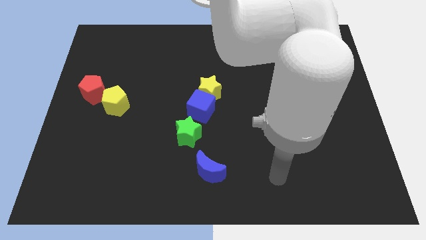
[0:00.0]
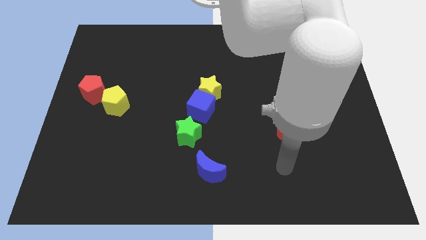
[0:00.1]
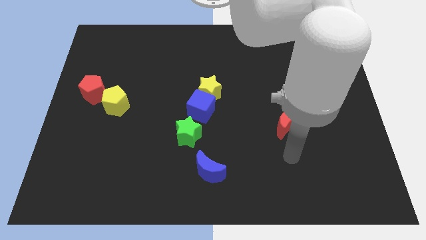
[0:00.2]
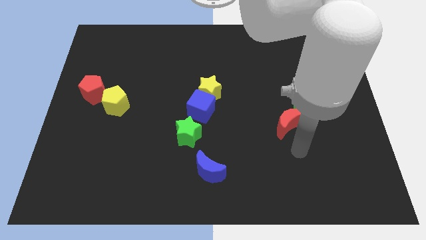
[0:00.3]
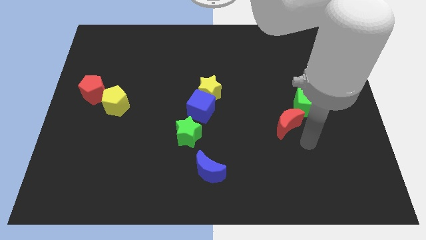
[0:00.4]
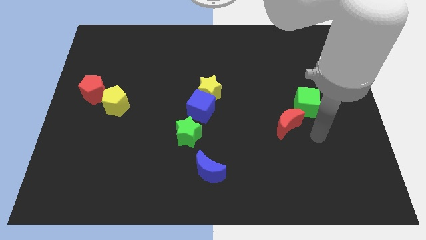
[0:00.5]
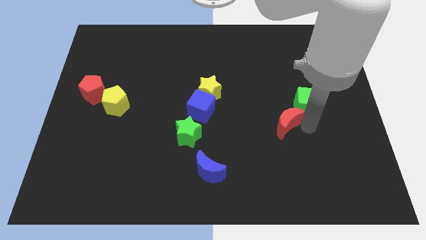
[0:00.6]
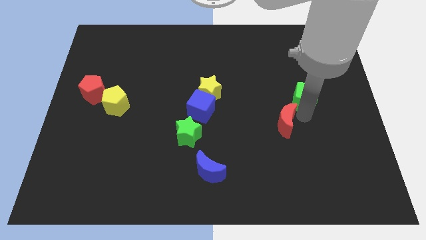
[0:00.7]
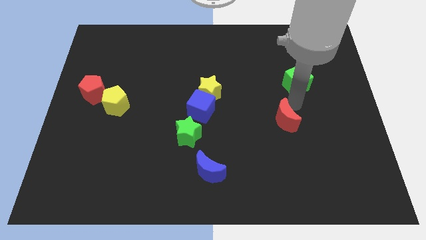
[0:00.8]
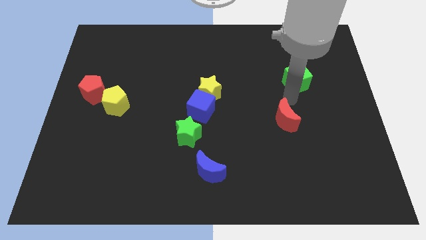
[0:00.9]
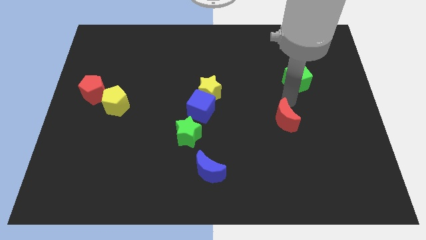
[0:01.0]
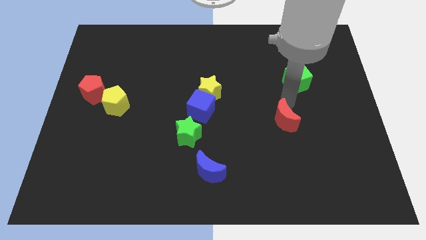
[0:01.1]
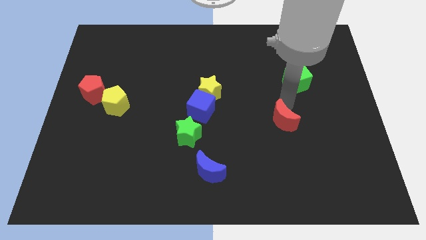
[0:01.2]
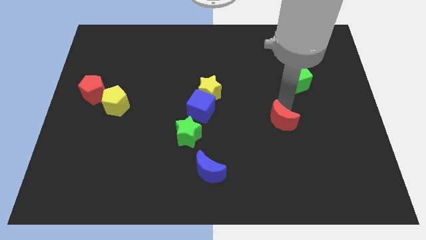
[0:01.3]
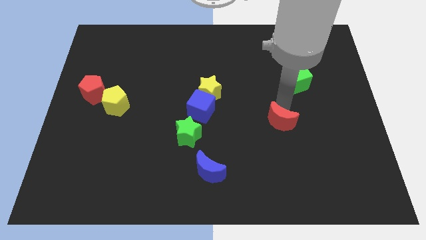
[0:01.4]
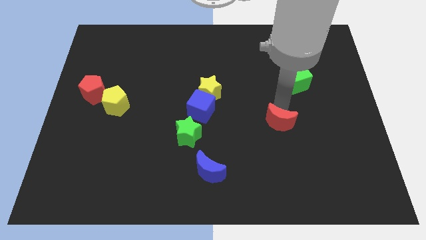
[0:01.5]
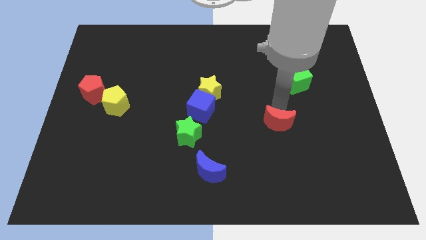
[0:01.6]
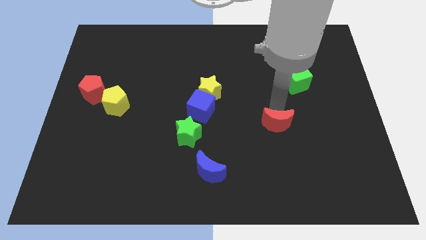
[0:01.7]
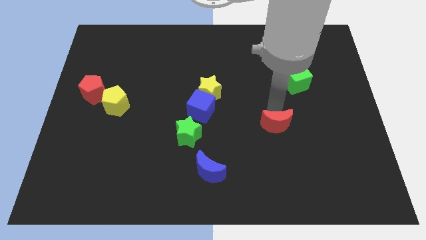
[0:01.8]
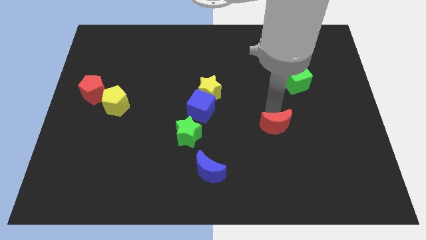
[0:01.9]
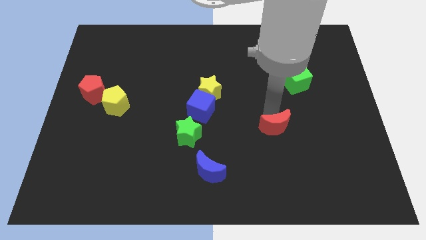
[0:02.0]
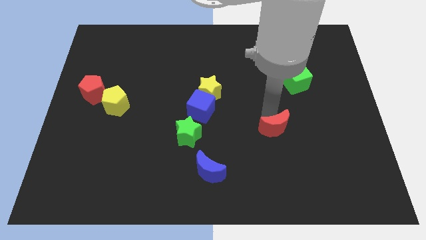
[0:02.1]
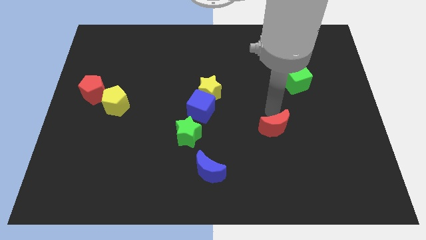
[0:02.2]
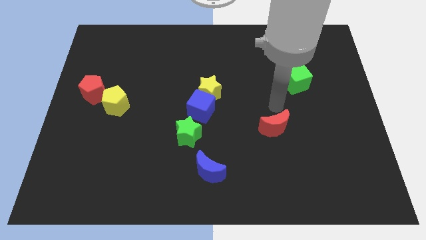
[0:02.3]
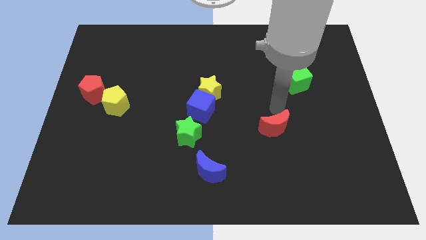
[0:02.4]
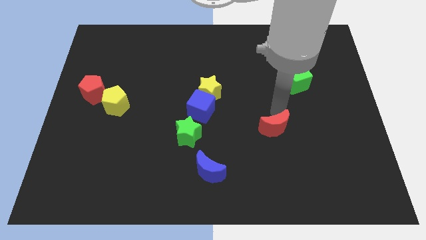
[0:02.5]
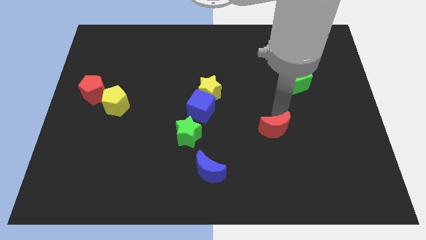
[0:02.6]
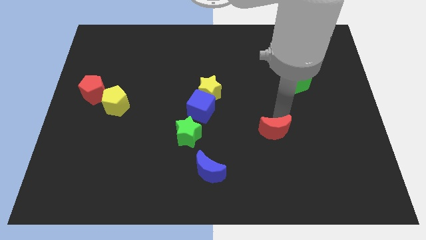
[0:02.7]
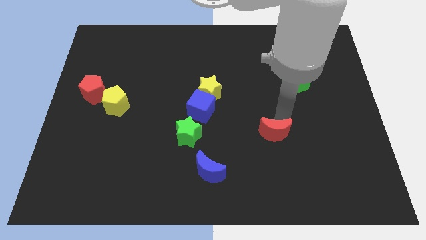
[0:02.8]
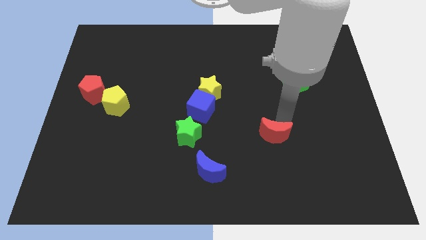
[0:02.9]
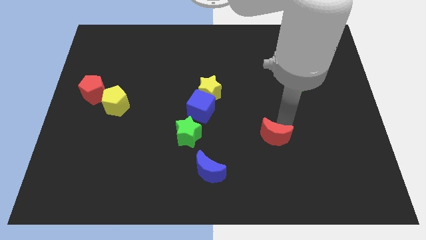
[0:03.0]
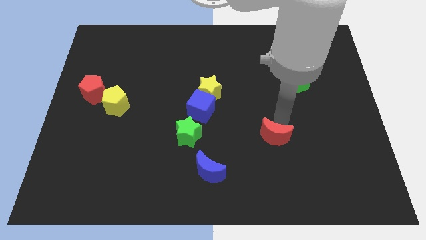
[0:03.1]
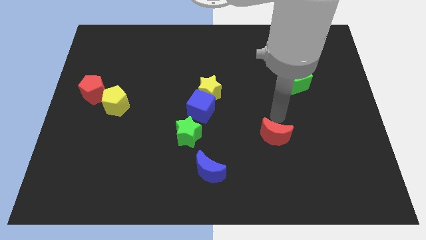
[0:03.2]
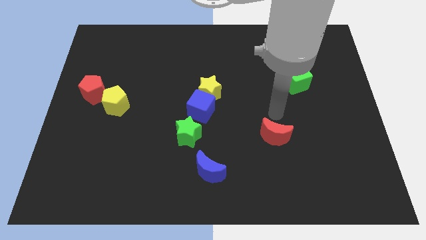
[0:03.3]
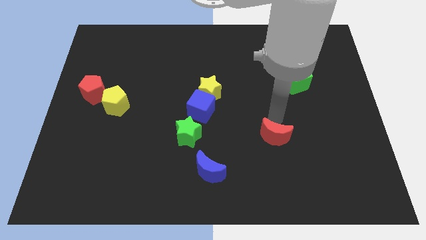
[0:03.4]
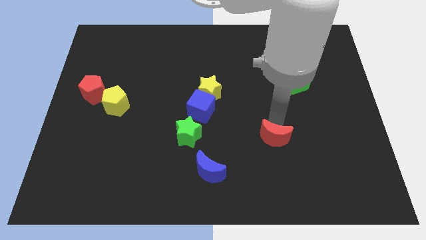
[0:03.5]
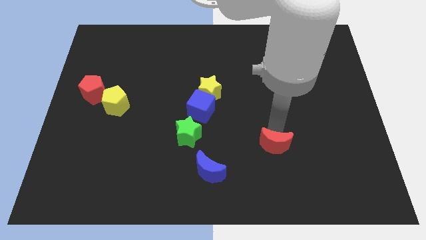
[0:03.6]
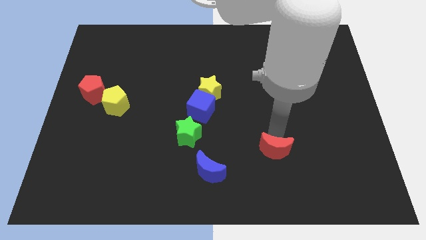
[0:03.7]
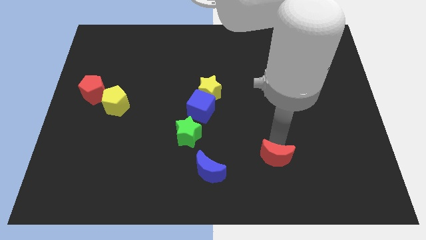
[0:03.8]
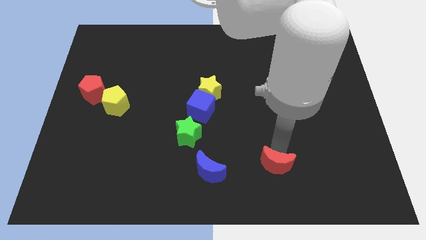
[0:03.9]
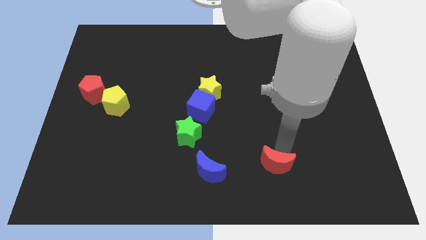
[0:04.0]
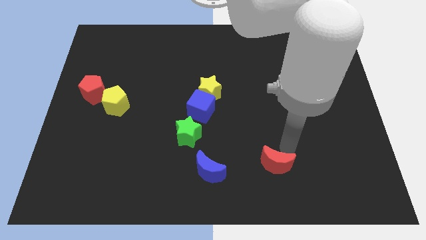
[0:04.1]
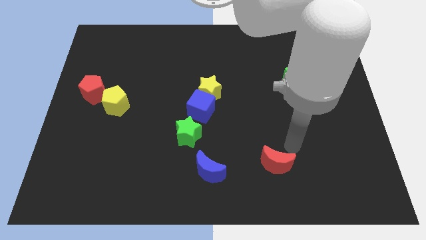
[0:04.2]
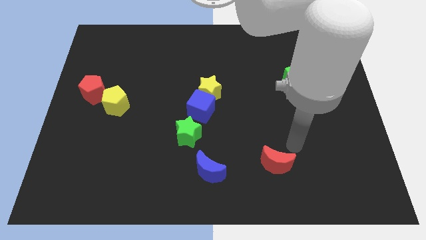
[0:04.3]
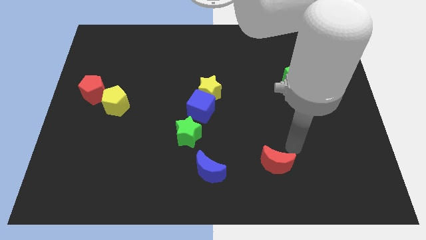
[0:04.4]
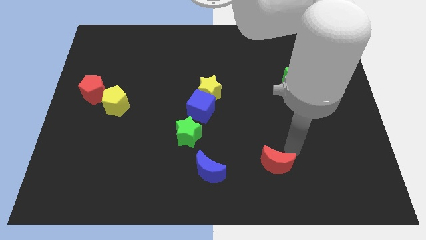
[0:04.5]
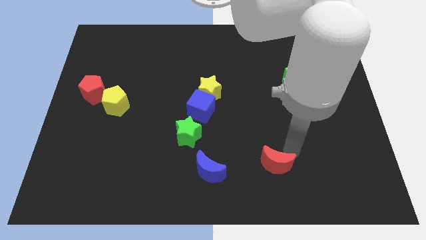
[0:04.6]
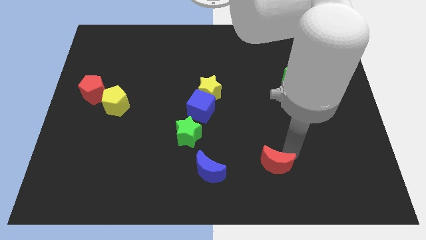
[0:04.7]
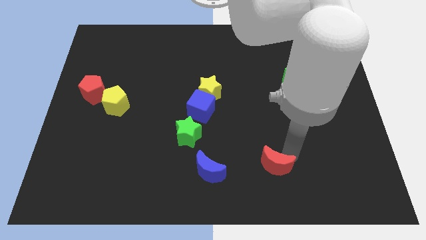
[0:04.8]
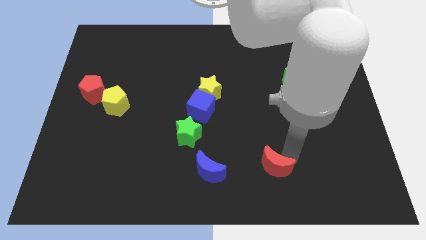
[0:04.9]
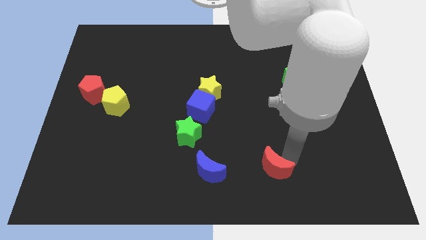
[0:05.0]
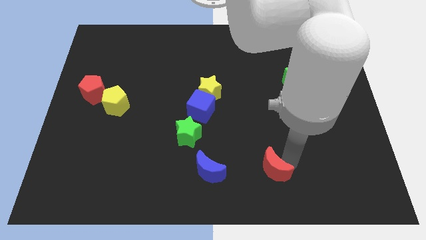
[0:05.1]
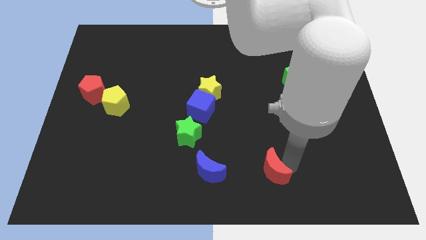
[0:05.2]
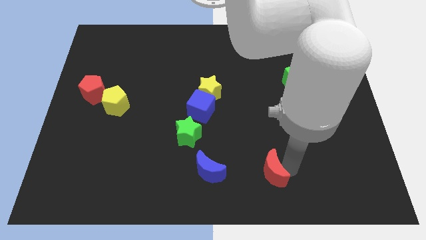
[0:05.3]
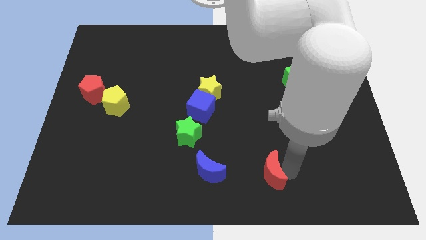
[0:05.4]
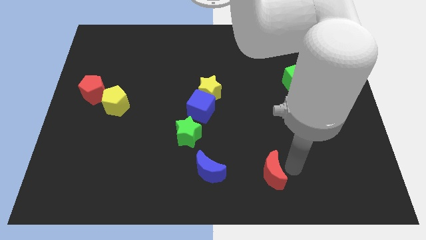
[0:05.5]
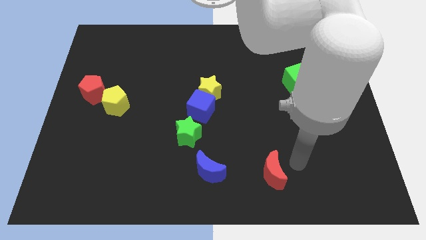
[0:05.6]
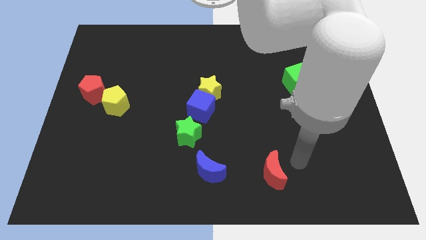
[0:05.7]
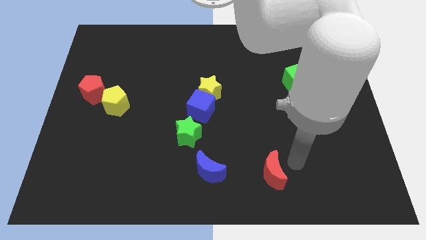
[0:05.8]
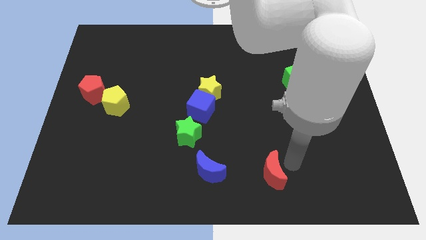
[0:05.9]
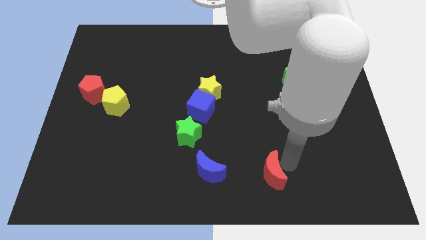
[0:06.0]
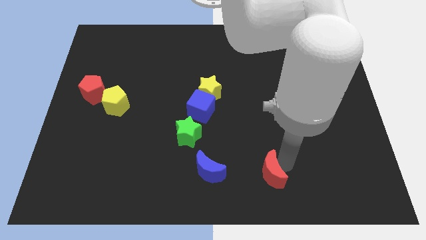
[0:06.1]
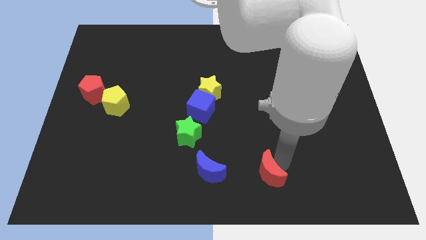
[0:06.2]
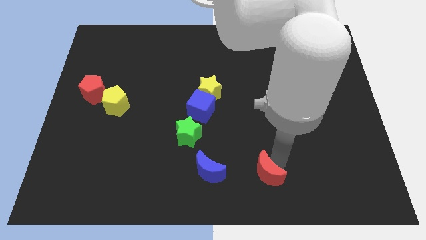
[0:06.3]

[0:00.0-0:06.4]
push the red moon to the bottom side

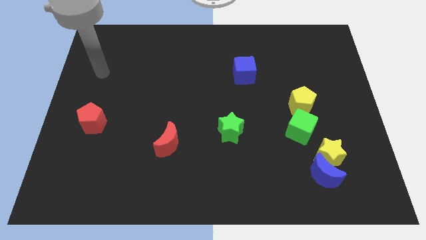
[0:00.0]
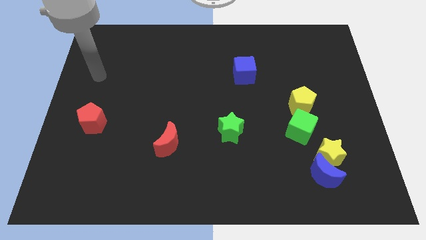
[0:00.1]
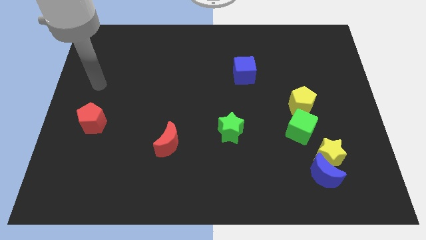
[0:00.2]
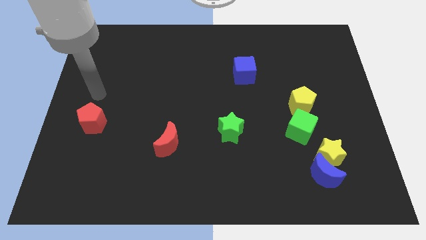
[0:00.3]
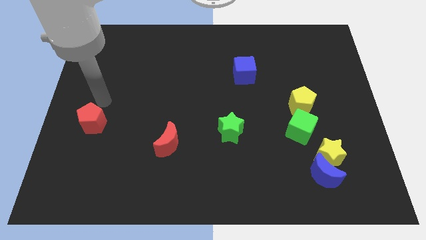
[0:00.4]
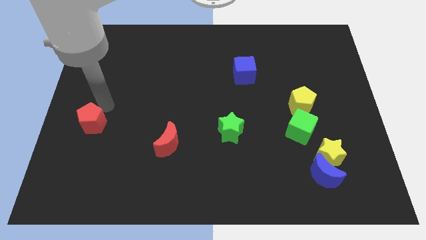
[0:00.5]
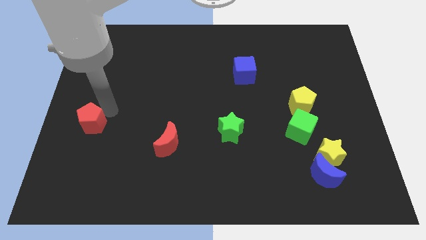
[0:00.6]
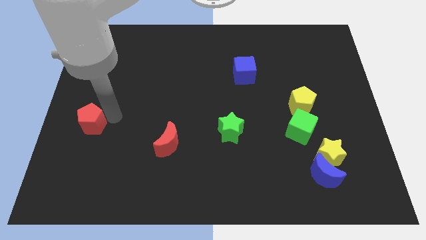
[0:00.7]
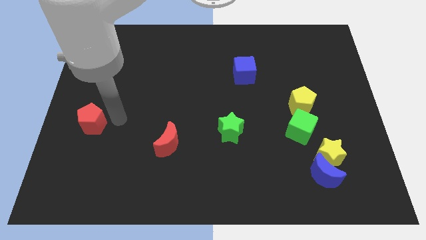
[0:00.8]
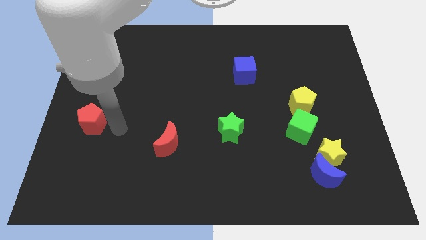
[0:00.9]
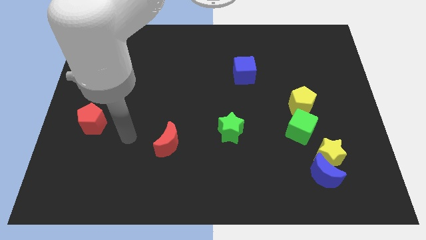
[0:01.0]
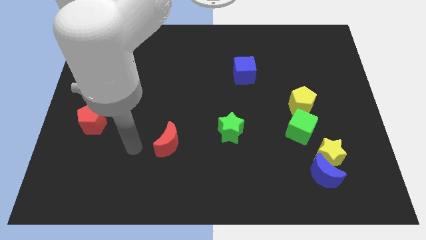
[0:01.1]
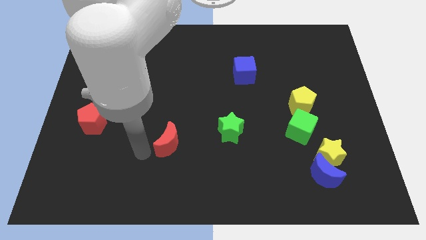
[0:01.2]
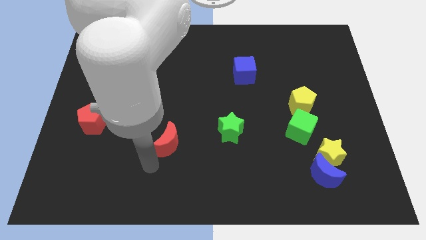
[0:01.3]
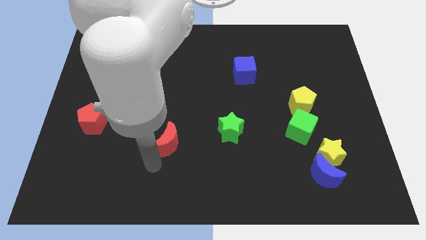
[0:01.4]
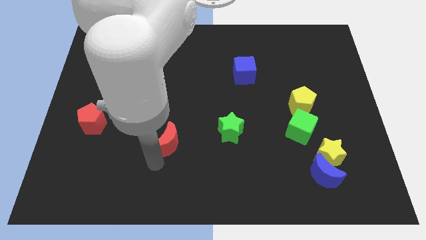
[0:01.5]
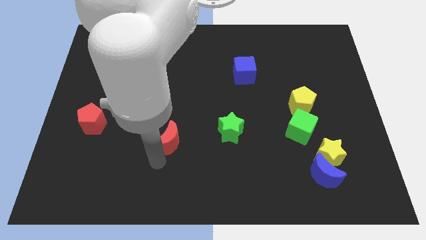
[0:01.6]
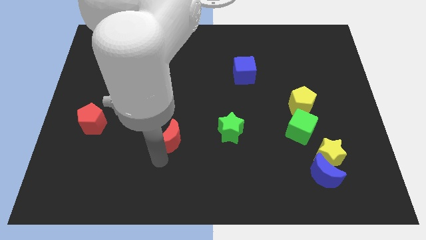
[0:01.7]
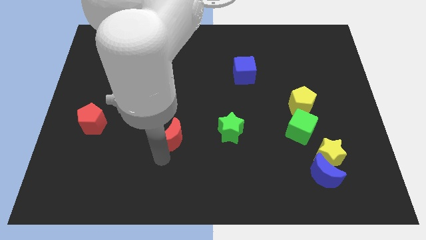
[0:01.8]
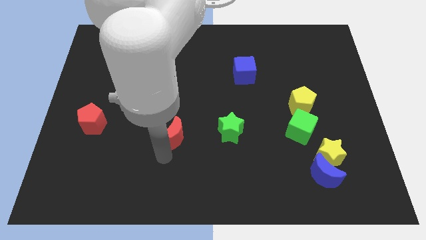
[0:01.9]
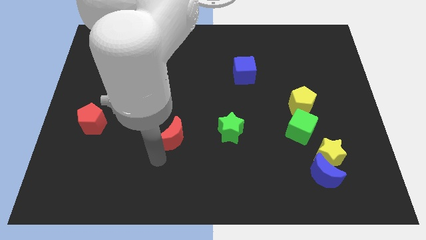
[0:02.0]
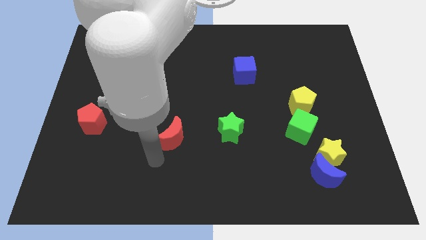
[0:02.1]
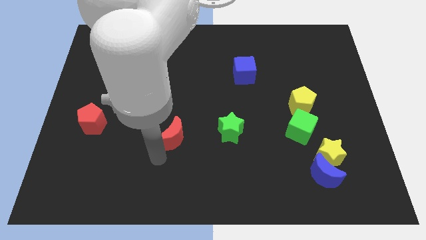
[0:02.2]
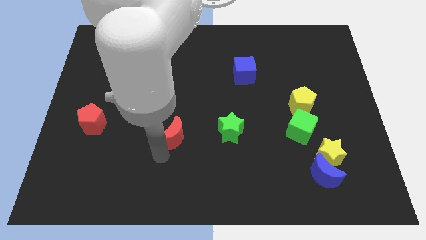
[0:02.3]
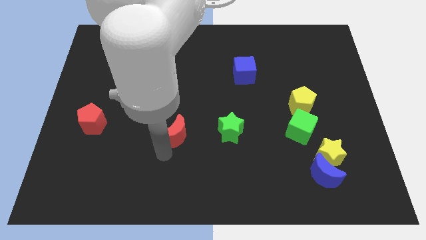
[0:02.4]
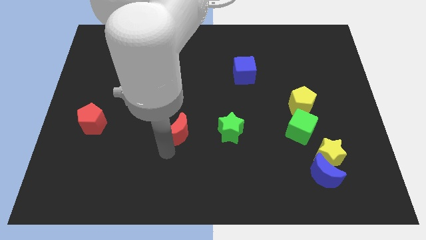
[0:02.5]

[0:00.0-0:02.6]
move the red moon to the center of the board
